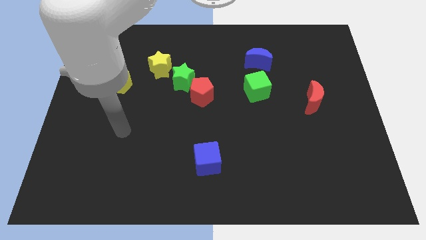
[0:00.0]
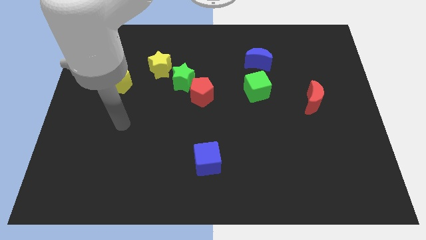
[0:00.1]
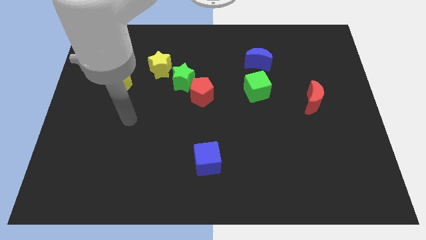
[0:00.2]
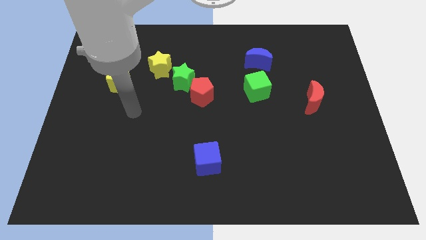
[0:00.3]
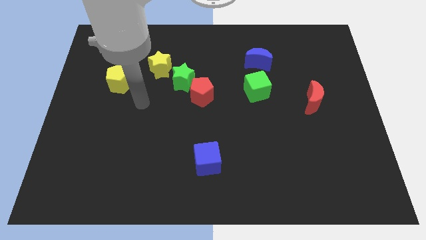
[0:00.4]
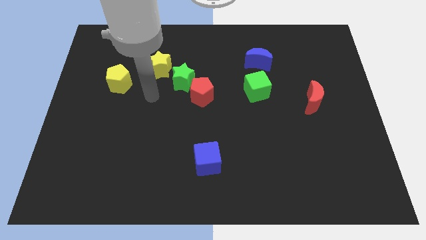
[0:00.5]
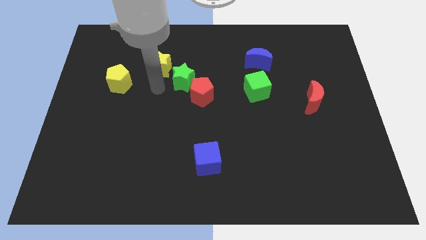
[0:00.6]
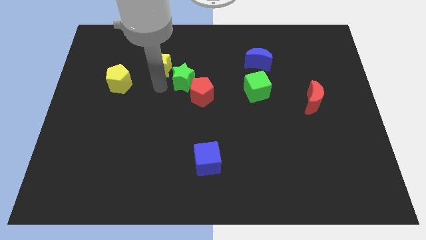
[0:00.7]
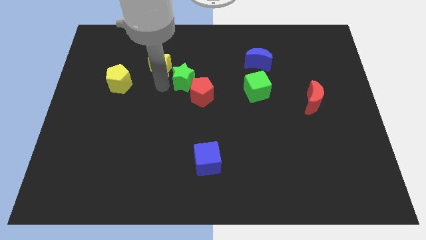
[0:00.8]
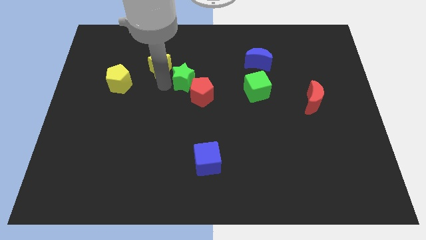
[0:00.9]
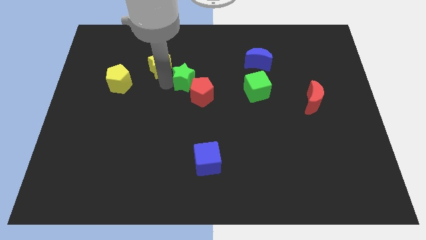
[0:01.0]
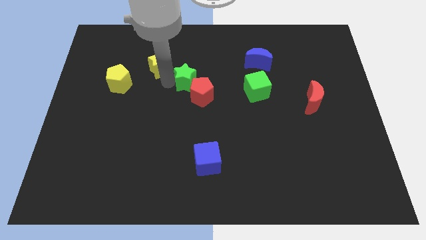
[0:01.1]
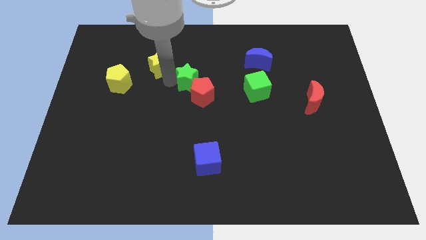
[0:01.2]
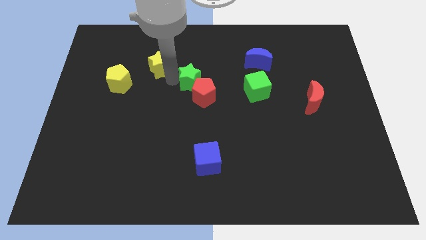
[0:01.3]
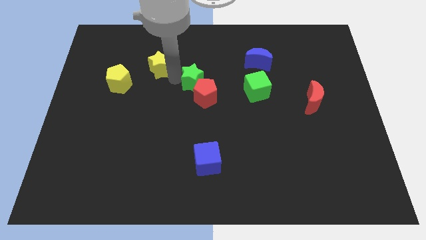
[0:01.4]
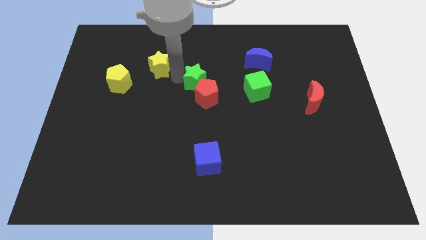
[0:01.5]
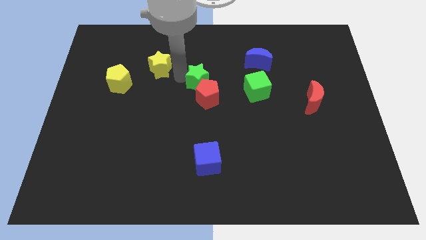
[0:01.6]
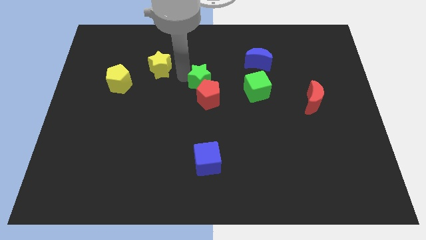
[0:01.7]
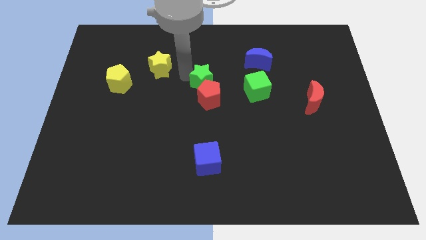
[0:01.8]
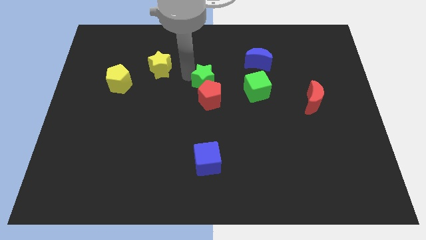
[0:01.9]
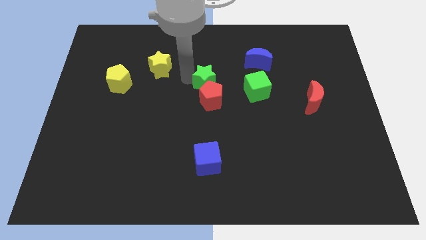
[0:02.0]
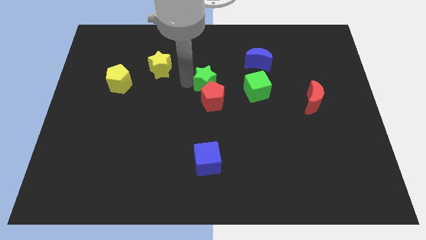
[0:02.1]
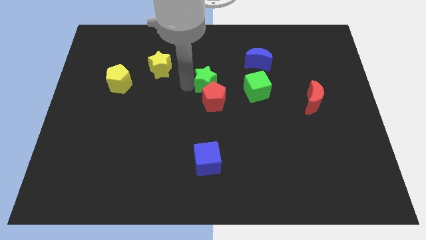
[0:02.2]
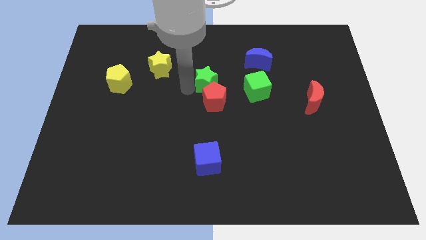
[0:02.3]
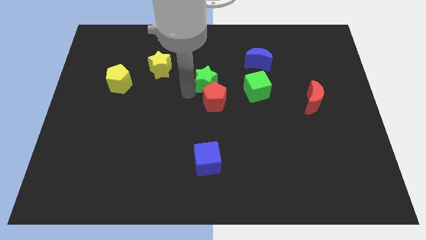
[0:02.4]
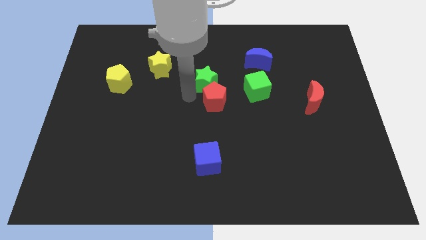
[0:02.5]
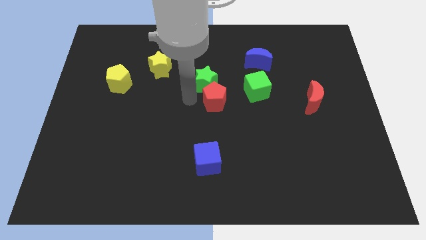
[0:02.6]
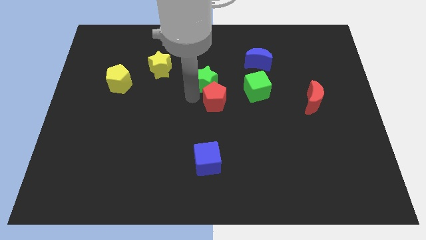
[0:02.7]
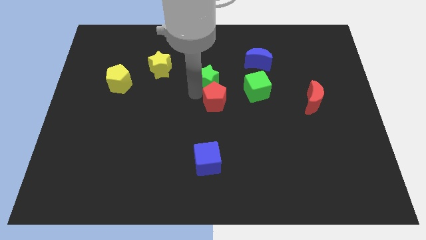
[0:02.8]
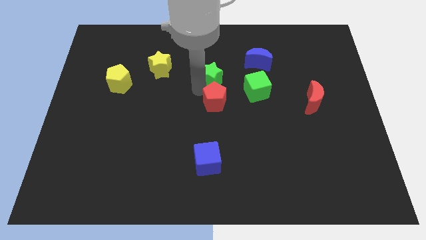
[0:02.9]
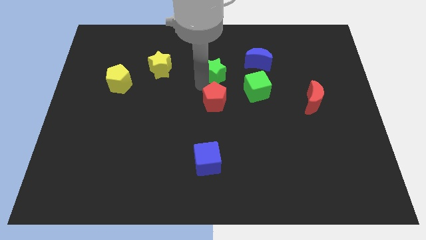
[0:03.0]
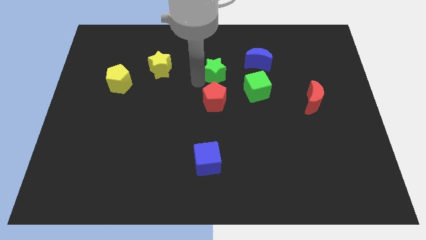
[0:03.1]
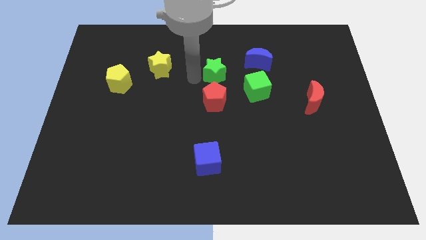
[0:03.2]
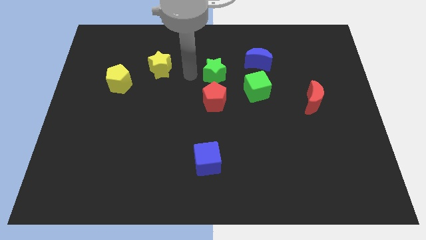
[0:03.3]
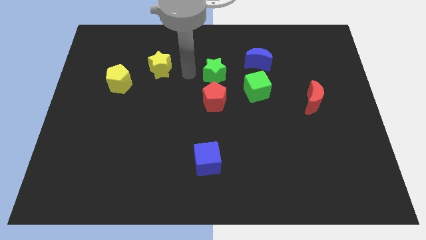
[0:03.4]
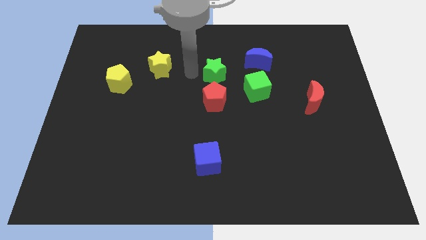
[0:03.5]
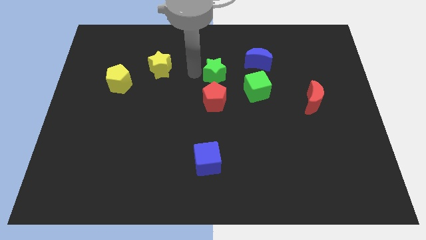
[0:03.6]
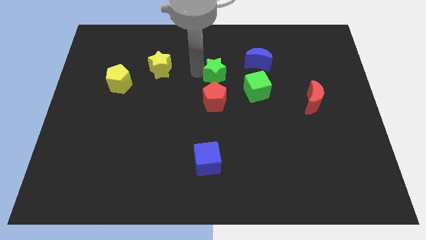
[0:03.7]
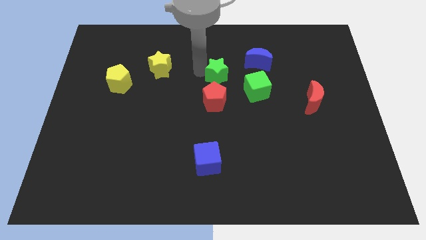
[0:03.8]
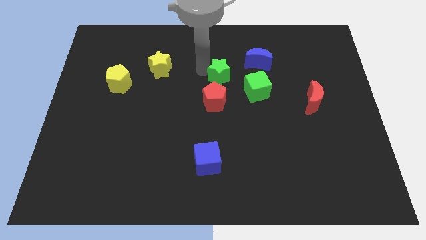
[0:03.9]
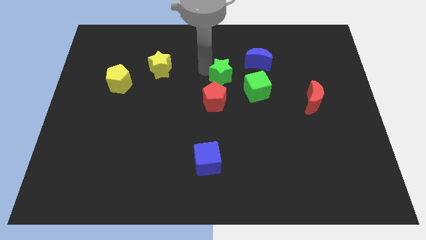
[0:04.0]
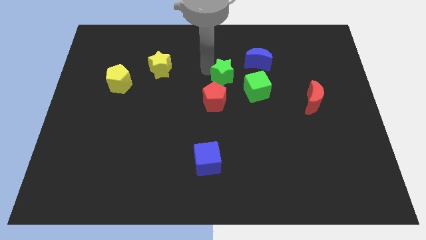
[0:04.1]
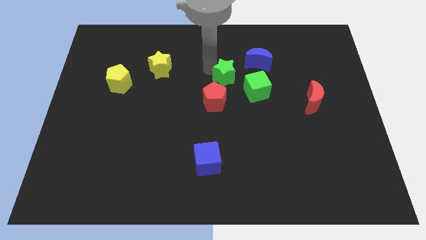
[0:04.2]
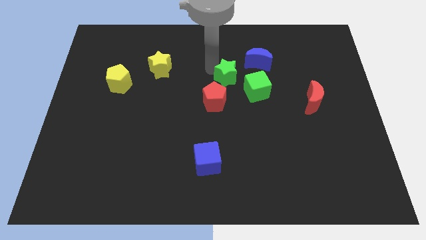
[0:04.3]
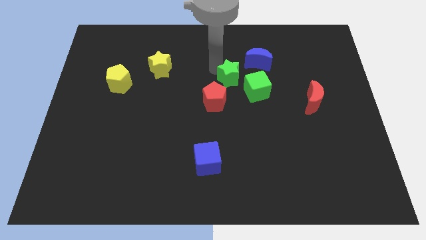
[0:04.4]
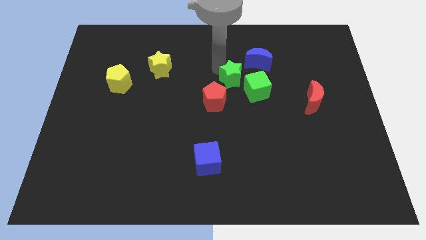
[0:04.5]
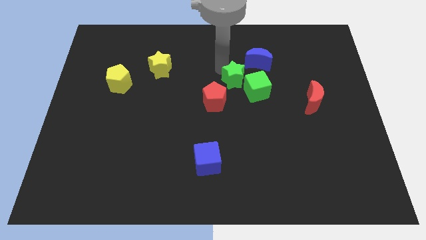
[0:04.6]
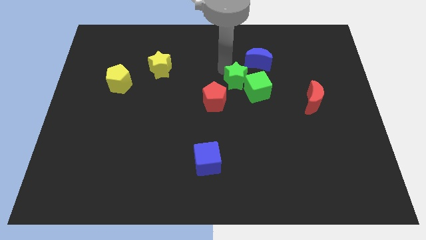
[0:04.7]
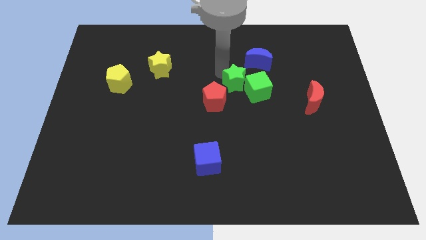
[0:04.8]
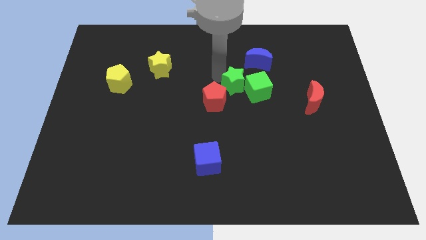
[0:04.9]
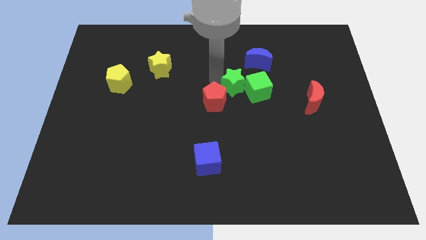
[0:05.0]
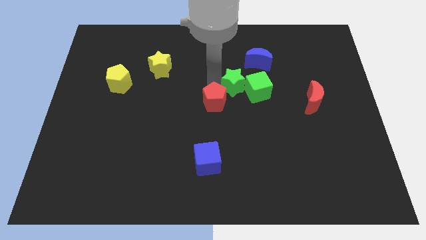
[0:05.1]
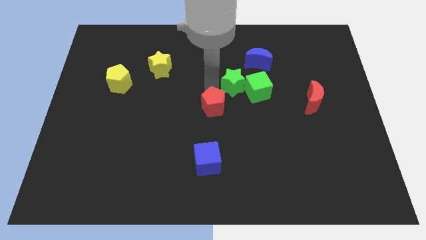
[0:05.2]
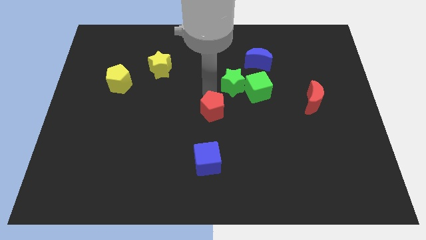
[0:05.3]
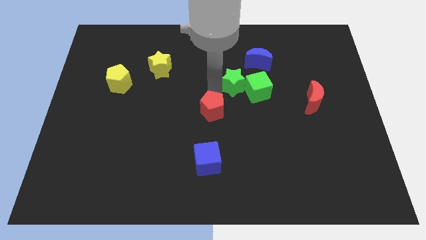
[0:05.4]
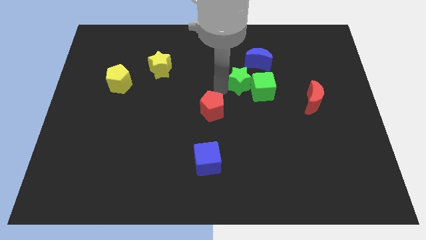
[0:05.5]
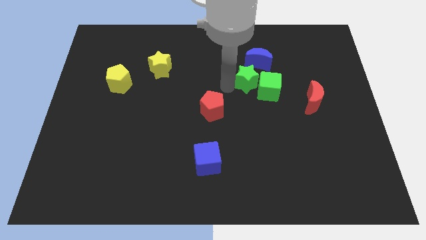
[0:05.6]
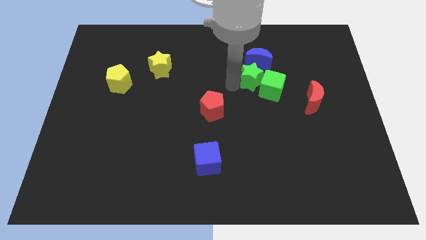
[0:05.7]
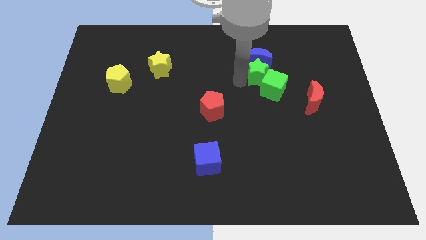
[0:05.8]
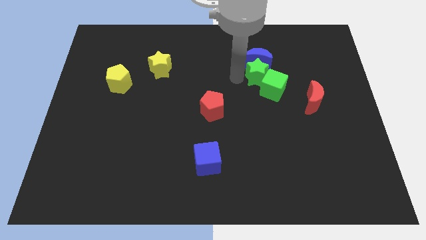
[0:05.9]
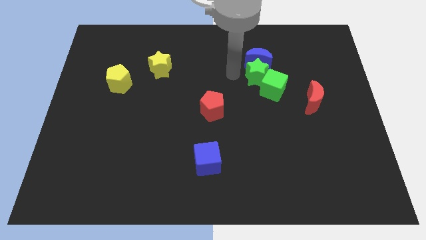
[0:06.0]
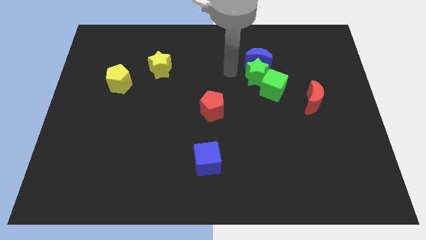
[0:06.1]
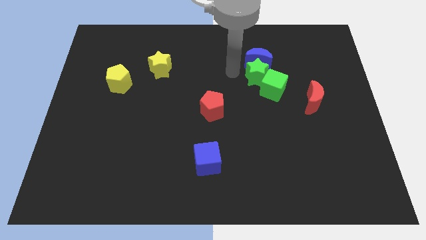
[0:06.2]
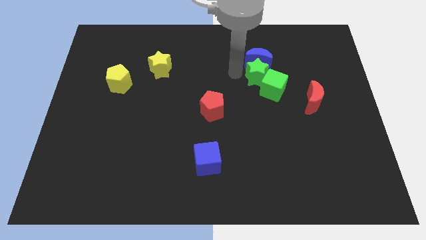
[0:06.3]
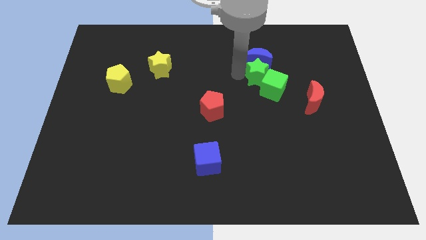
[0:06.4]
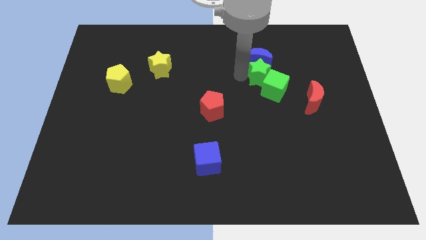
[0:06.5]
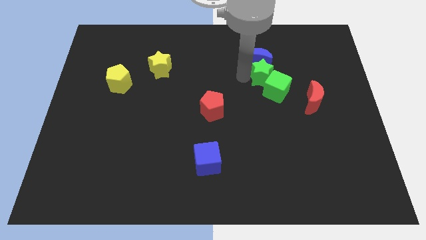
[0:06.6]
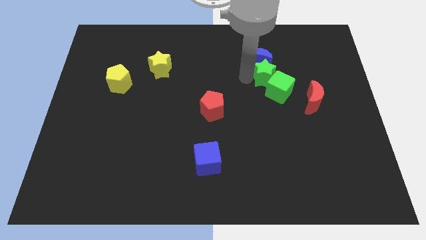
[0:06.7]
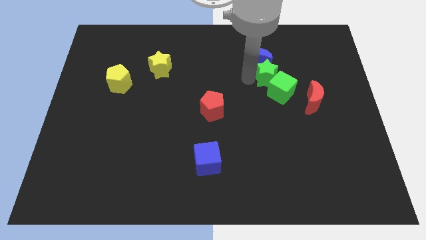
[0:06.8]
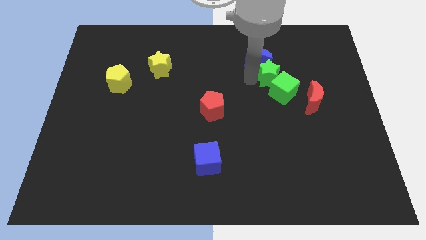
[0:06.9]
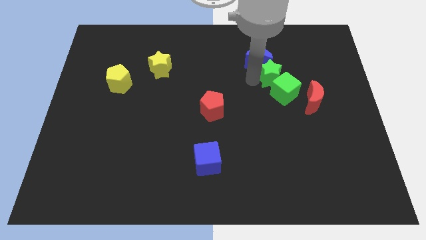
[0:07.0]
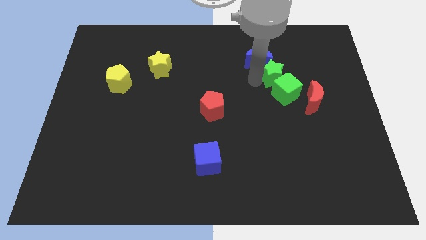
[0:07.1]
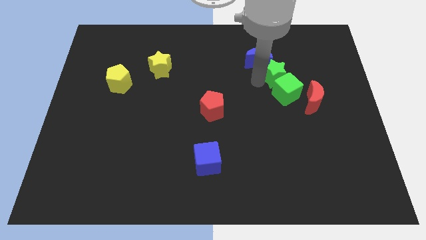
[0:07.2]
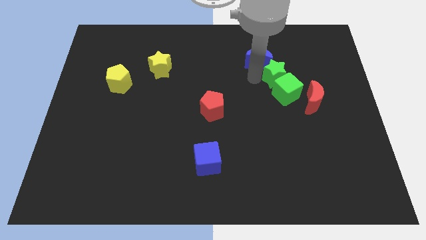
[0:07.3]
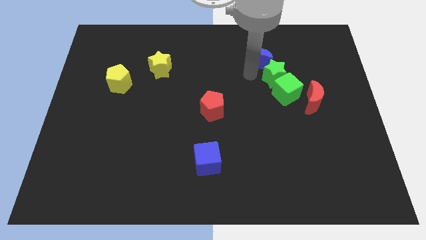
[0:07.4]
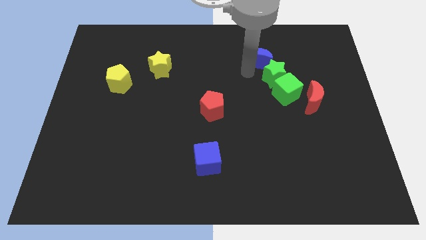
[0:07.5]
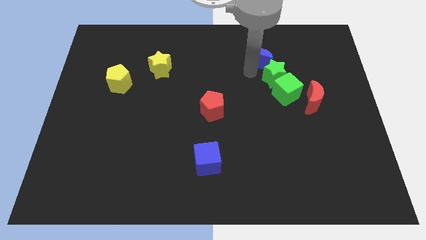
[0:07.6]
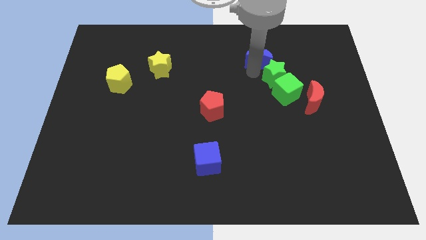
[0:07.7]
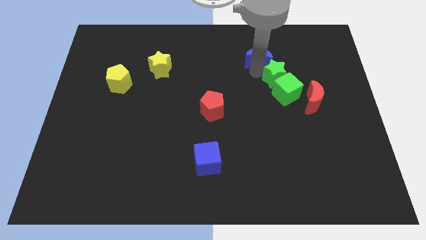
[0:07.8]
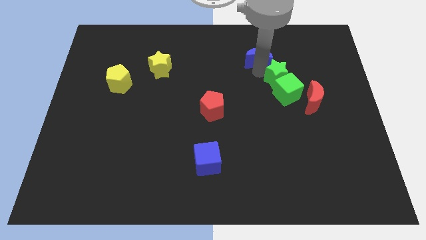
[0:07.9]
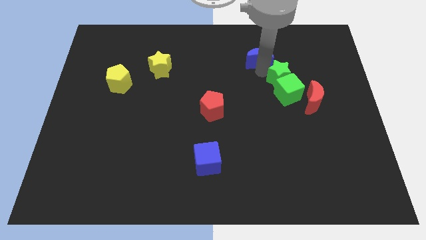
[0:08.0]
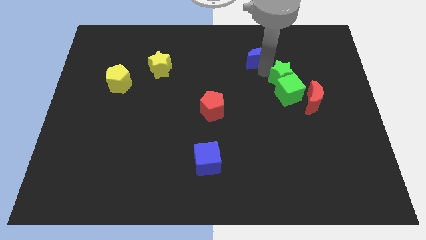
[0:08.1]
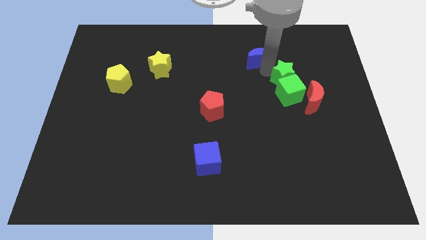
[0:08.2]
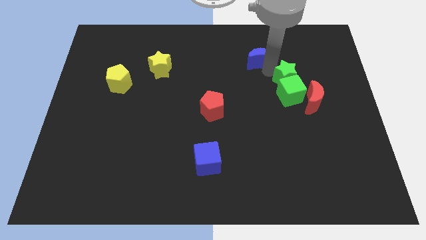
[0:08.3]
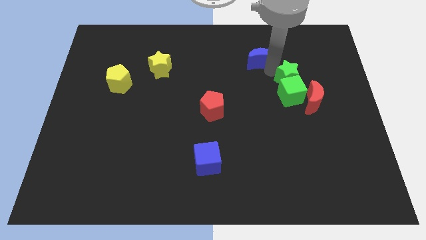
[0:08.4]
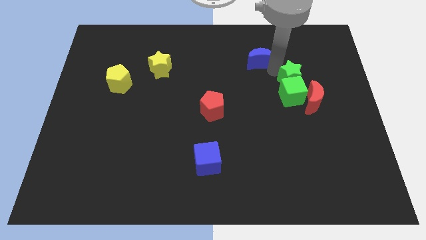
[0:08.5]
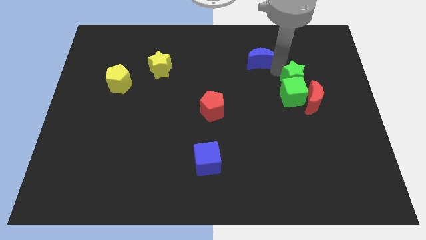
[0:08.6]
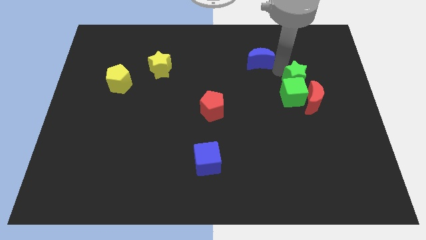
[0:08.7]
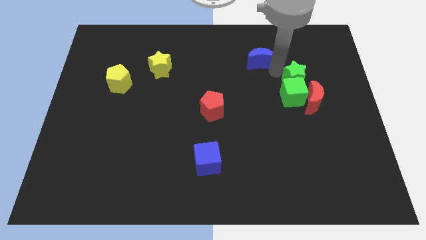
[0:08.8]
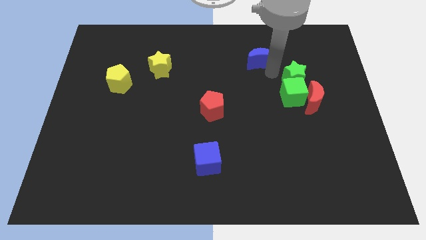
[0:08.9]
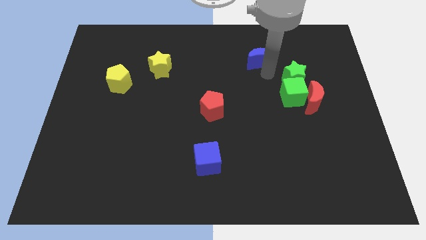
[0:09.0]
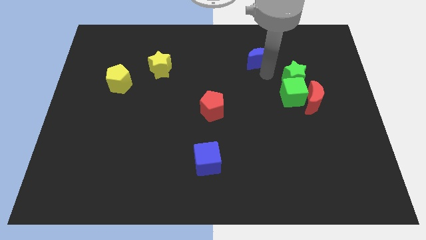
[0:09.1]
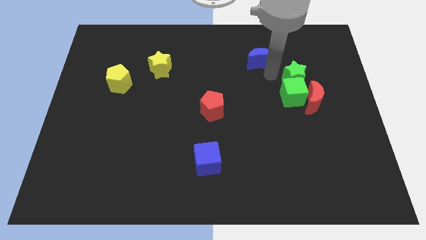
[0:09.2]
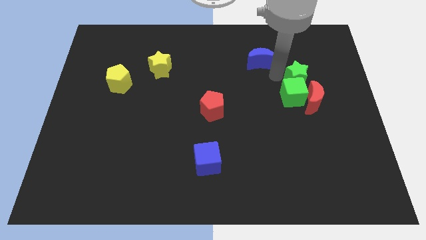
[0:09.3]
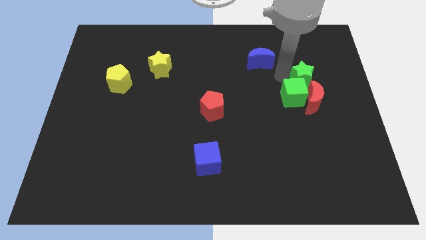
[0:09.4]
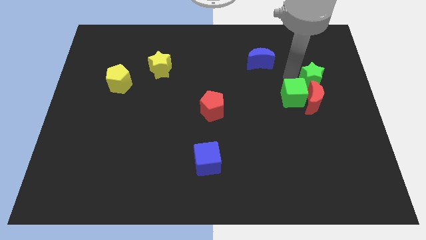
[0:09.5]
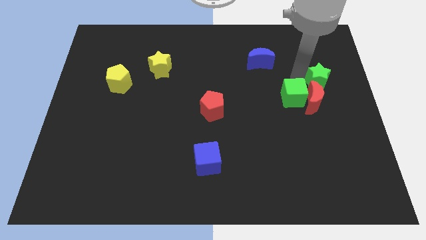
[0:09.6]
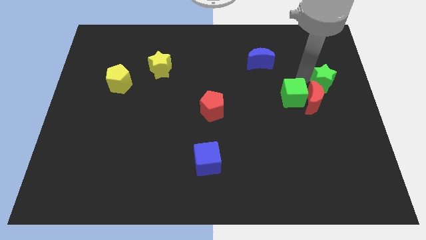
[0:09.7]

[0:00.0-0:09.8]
move the green star to the center right
